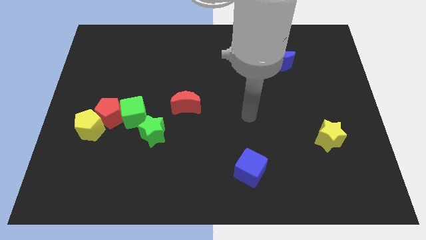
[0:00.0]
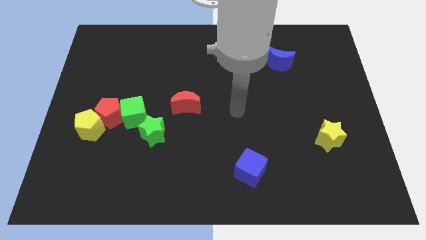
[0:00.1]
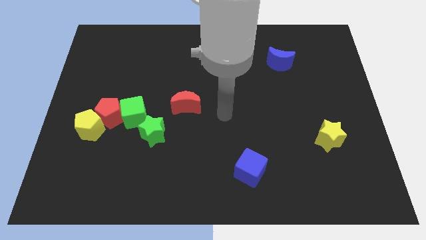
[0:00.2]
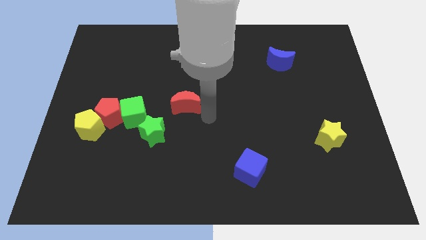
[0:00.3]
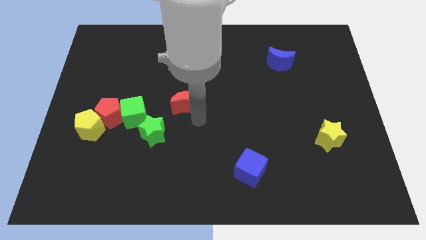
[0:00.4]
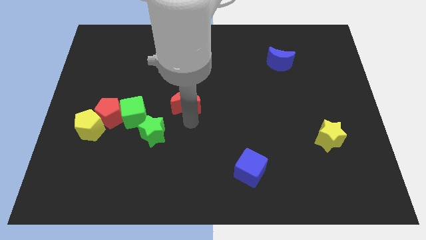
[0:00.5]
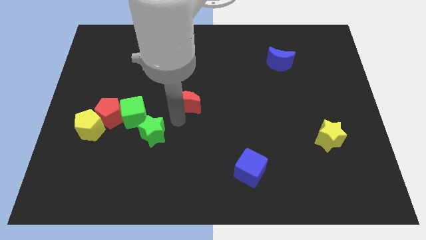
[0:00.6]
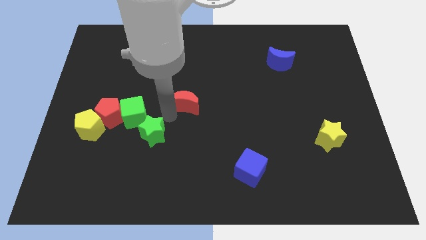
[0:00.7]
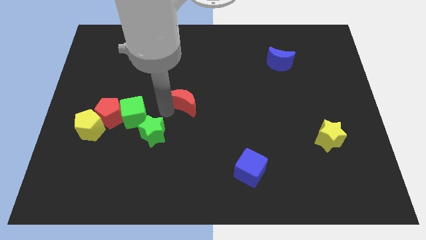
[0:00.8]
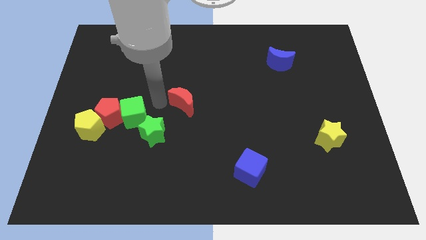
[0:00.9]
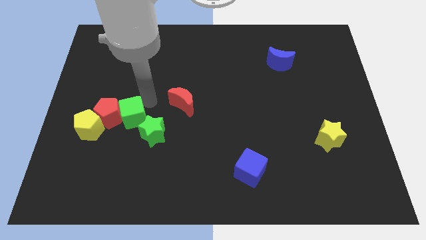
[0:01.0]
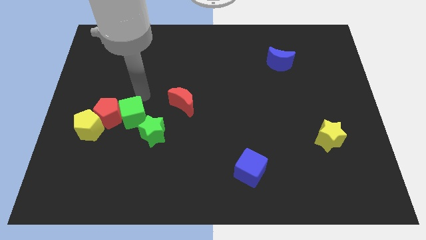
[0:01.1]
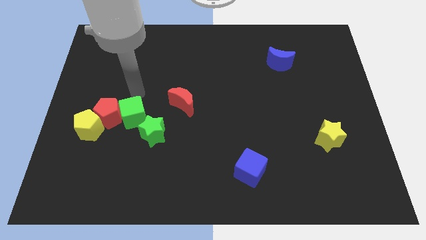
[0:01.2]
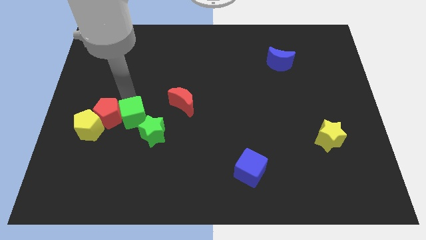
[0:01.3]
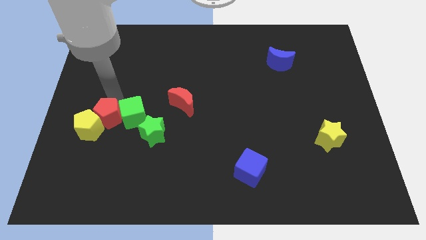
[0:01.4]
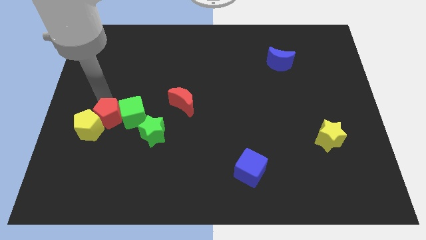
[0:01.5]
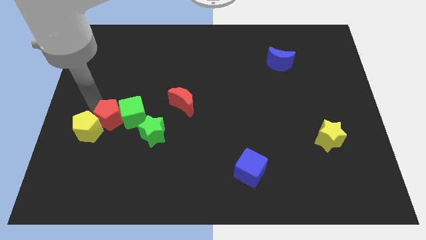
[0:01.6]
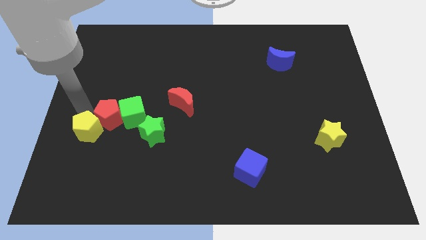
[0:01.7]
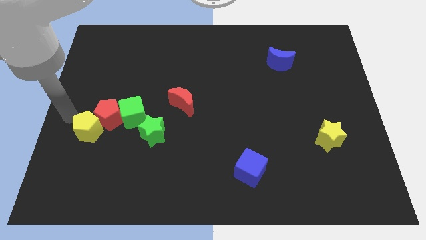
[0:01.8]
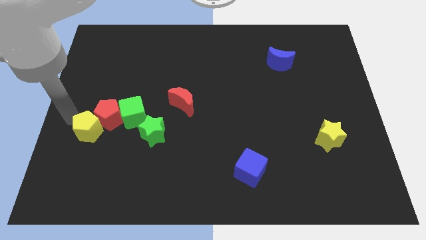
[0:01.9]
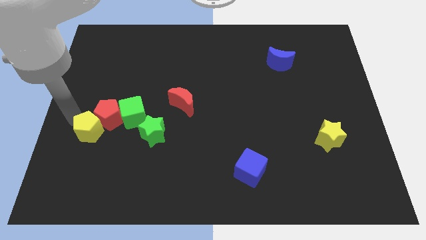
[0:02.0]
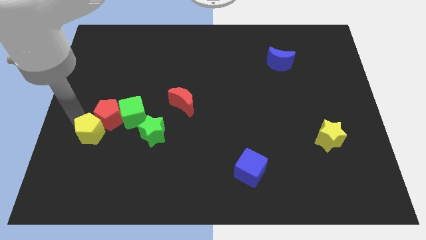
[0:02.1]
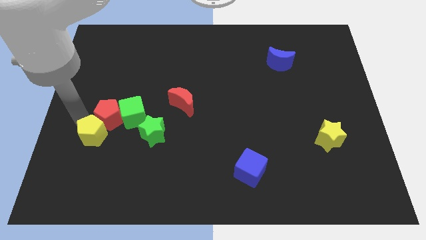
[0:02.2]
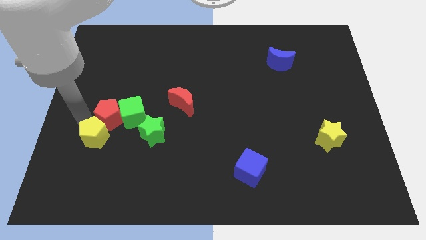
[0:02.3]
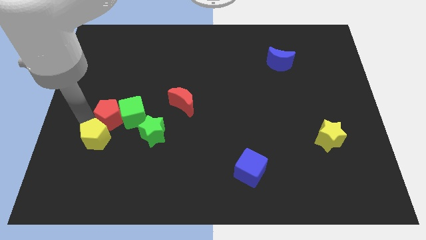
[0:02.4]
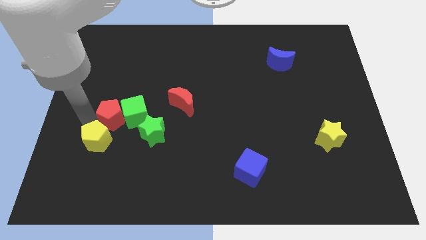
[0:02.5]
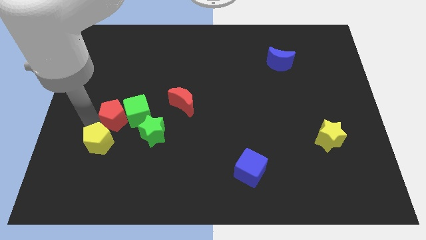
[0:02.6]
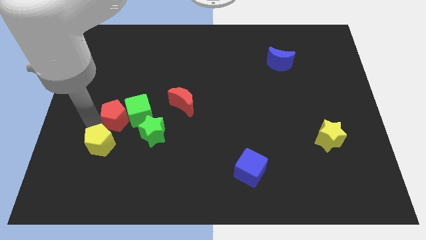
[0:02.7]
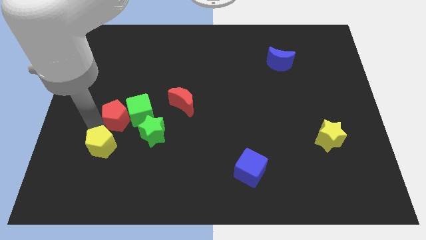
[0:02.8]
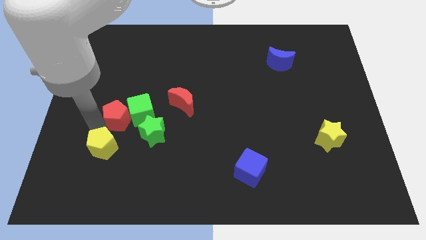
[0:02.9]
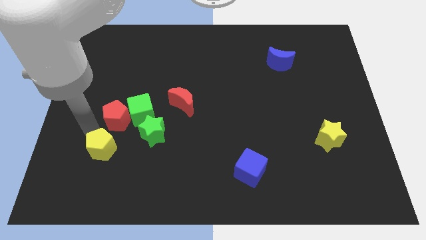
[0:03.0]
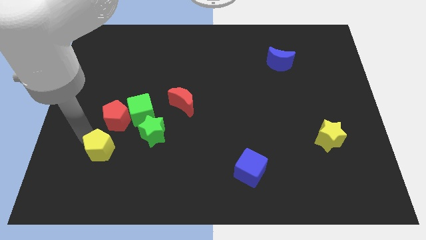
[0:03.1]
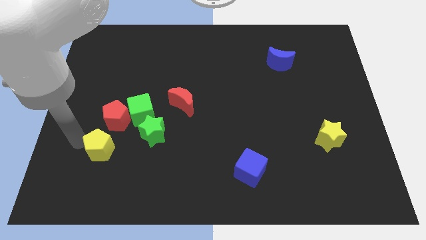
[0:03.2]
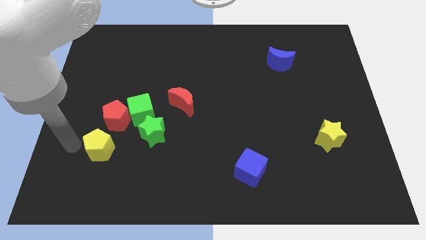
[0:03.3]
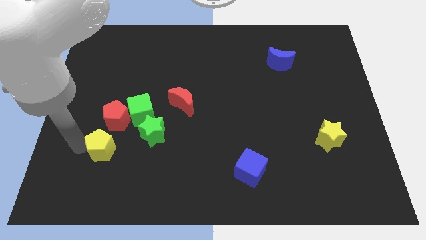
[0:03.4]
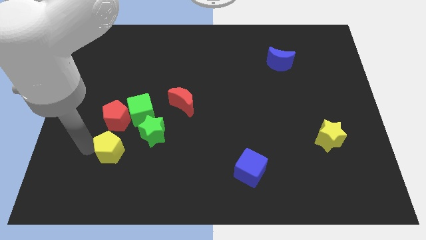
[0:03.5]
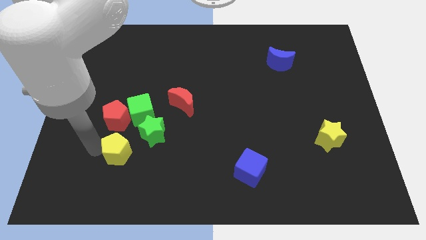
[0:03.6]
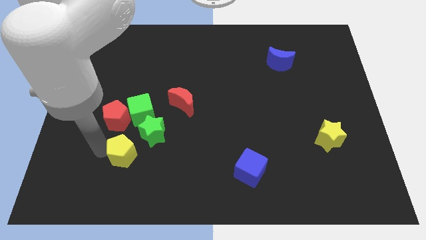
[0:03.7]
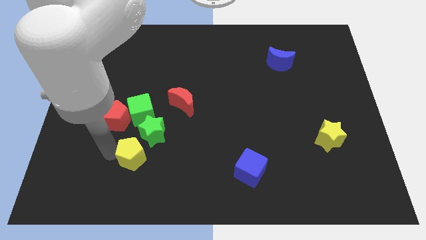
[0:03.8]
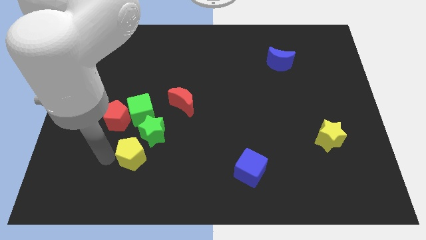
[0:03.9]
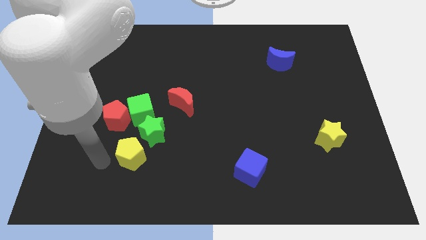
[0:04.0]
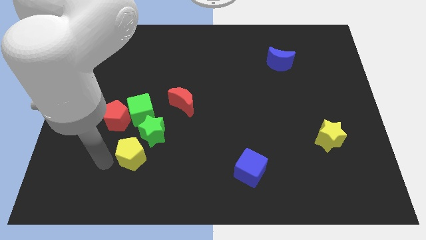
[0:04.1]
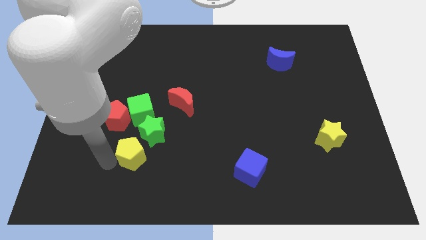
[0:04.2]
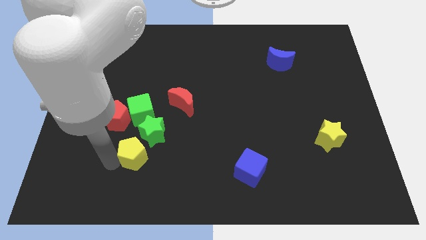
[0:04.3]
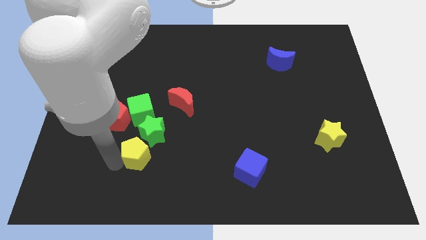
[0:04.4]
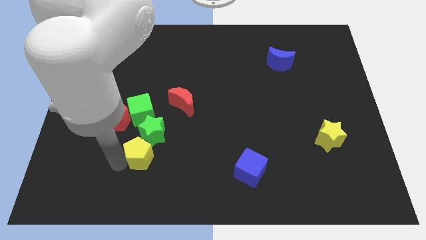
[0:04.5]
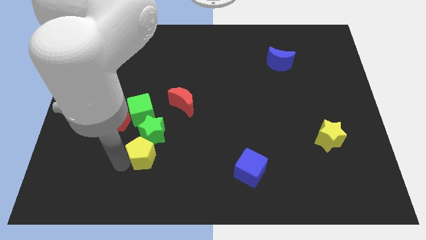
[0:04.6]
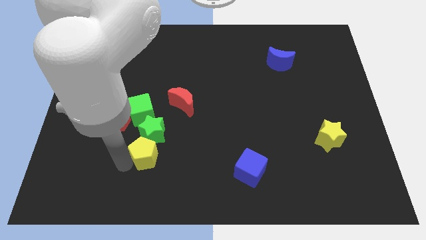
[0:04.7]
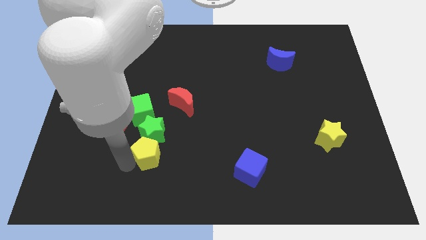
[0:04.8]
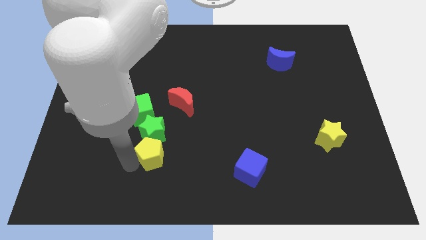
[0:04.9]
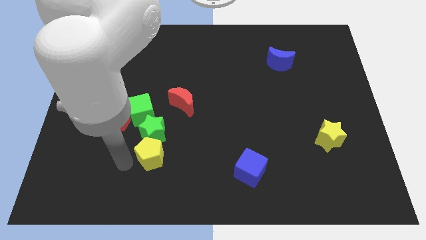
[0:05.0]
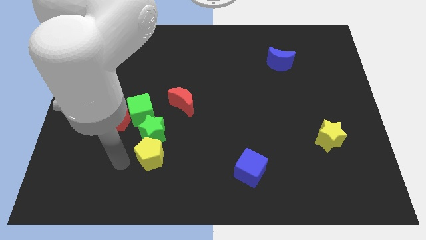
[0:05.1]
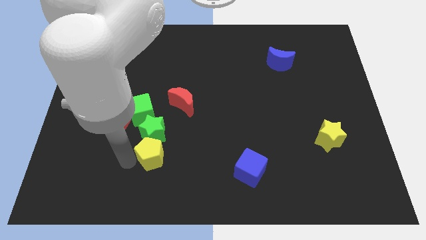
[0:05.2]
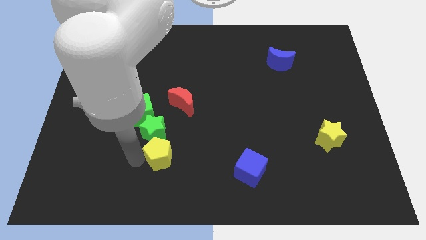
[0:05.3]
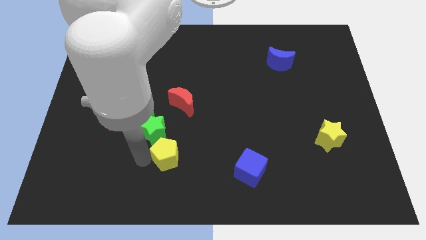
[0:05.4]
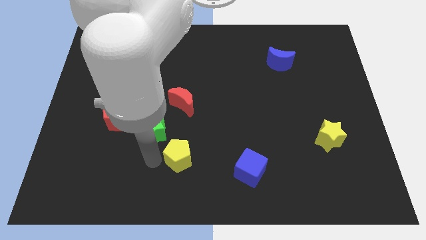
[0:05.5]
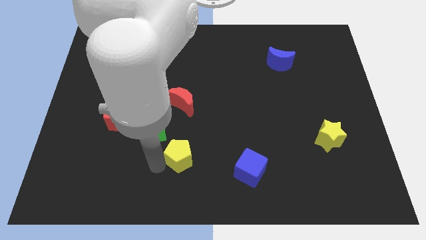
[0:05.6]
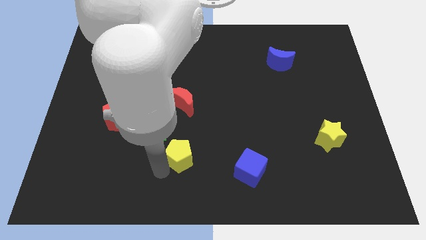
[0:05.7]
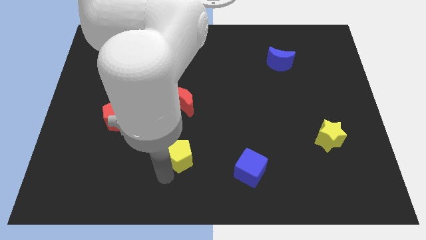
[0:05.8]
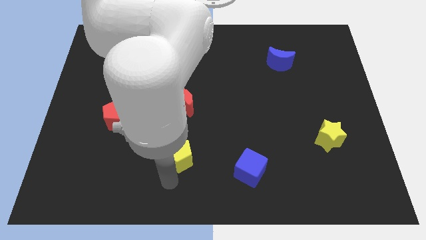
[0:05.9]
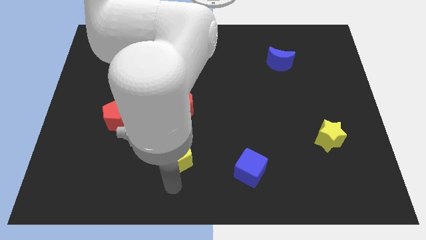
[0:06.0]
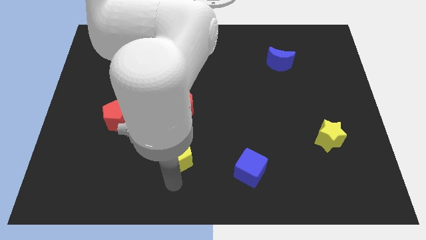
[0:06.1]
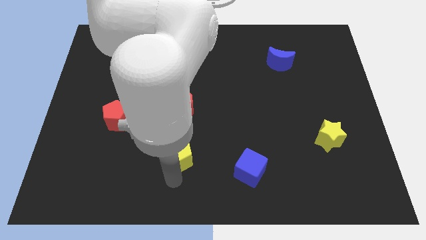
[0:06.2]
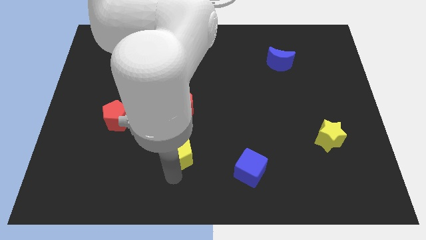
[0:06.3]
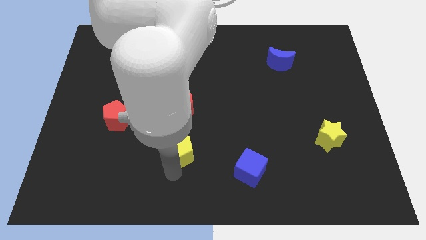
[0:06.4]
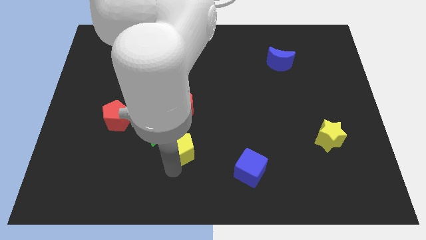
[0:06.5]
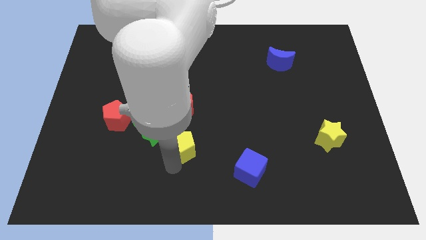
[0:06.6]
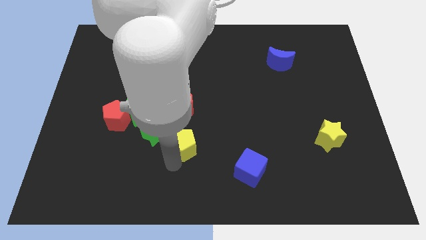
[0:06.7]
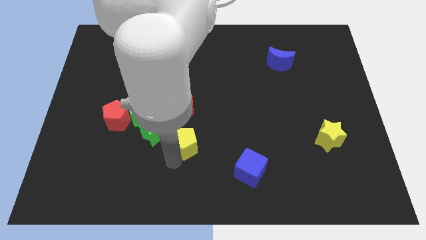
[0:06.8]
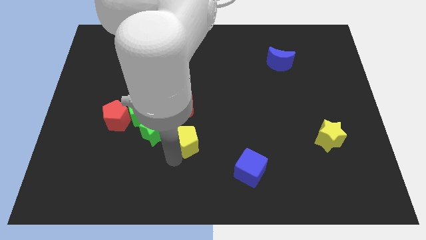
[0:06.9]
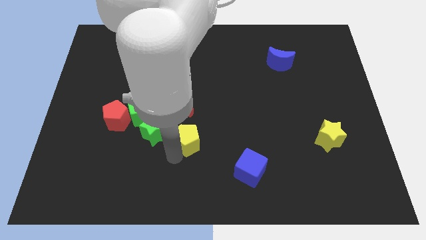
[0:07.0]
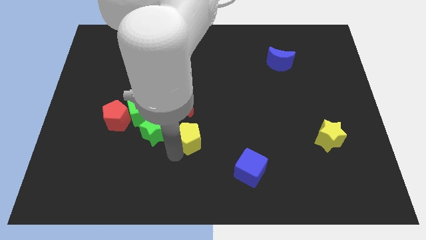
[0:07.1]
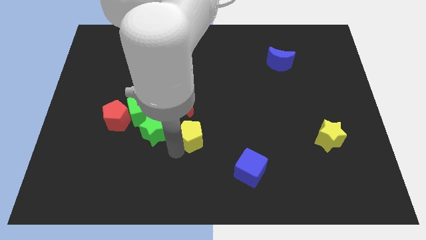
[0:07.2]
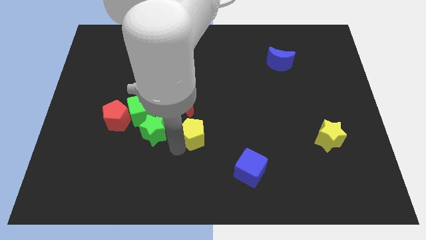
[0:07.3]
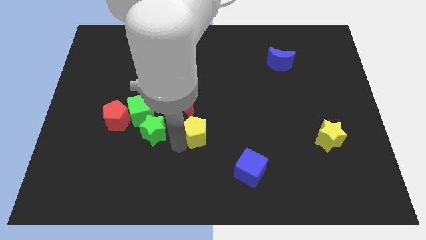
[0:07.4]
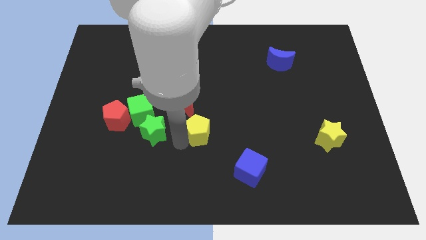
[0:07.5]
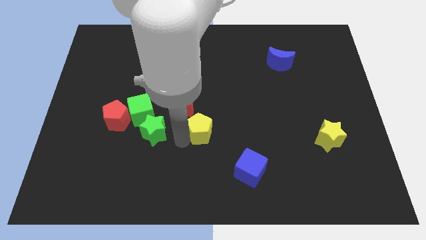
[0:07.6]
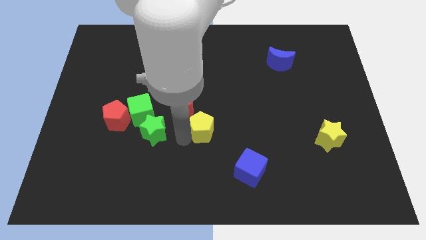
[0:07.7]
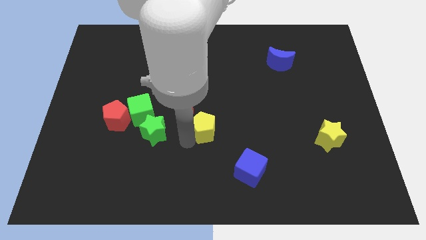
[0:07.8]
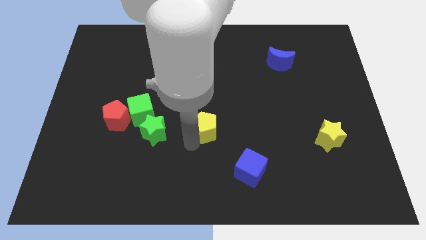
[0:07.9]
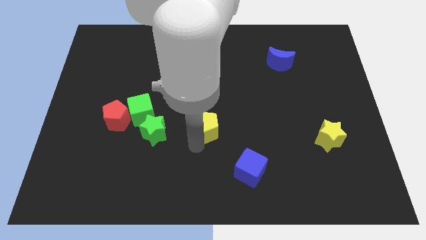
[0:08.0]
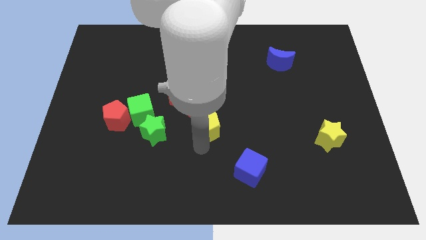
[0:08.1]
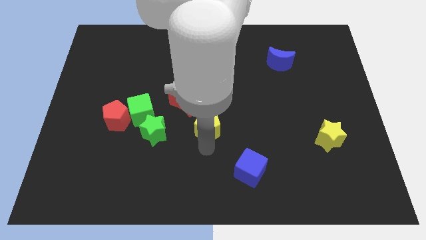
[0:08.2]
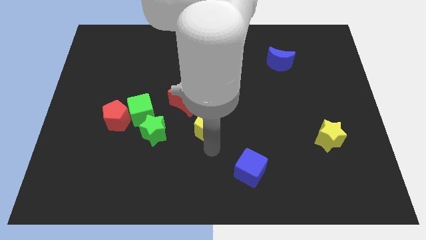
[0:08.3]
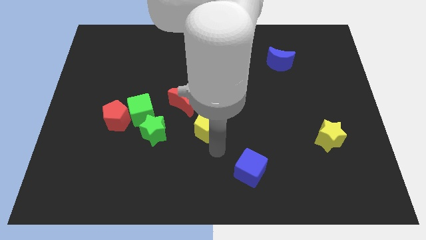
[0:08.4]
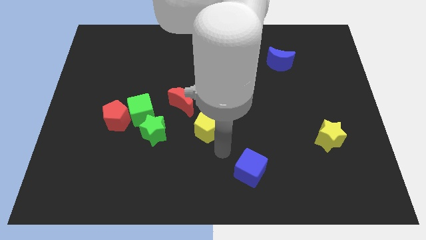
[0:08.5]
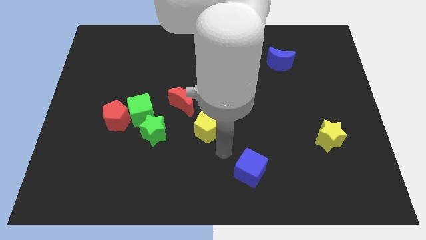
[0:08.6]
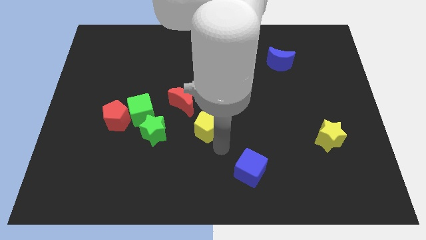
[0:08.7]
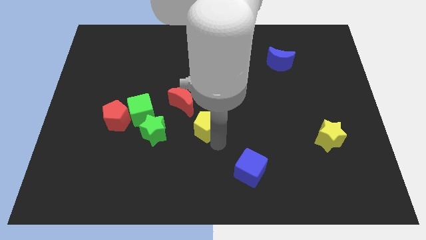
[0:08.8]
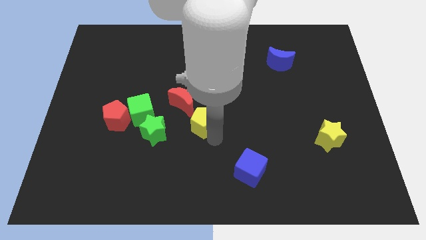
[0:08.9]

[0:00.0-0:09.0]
move the yellow pentagon just right of the green cube
